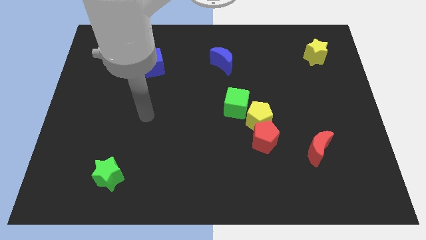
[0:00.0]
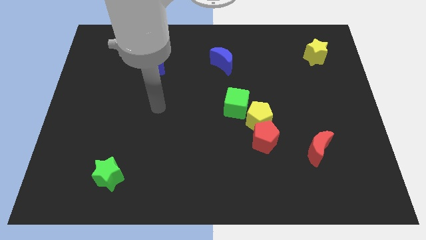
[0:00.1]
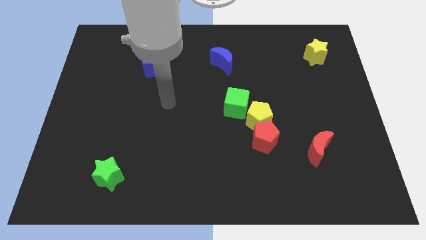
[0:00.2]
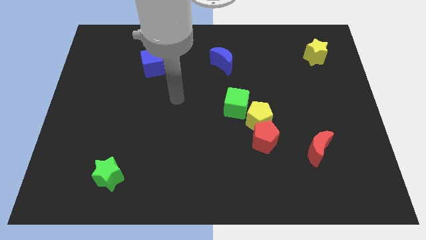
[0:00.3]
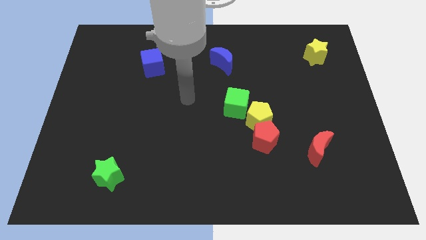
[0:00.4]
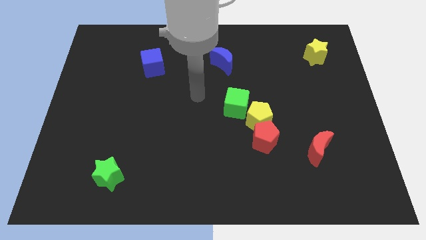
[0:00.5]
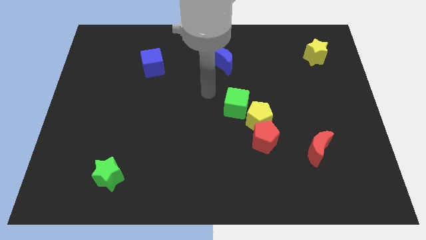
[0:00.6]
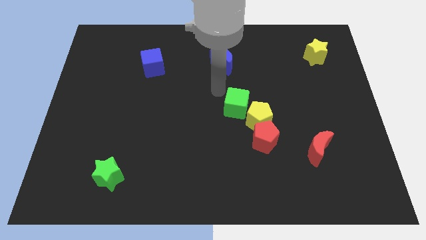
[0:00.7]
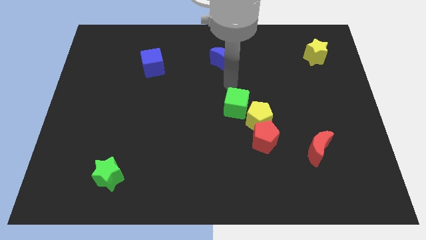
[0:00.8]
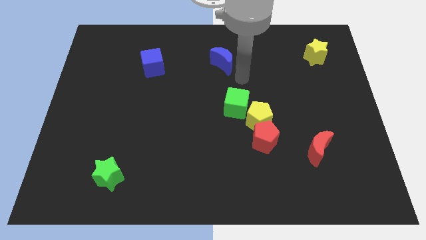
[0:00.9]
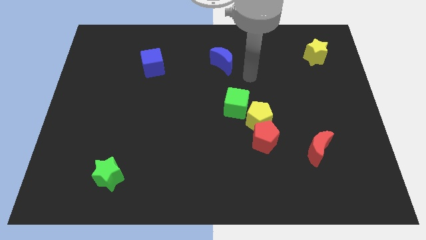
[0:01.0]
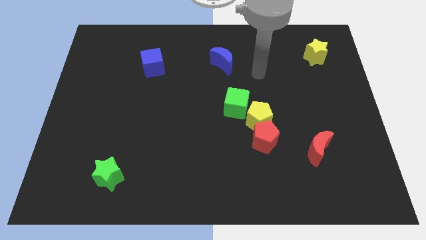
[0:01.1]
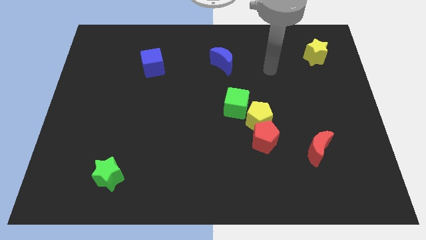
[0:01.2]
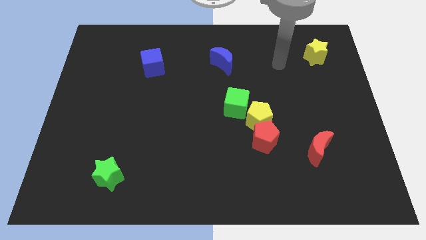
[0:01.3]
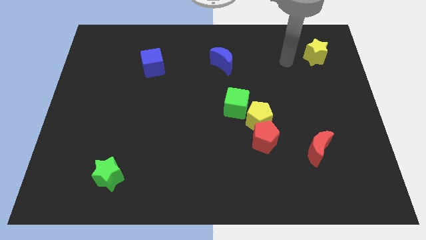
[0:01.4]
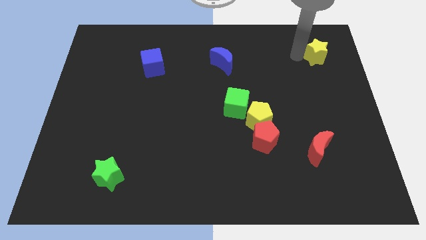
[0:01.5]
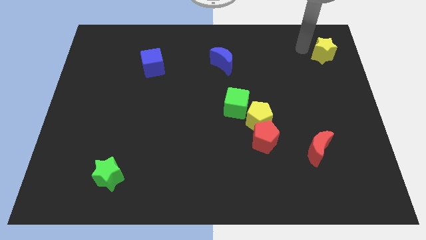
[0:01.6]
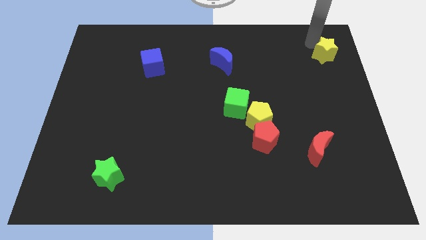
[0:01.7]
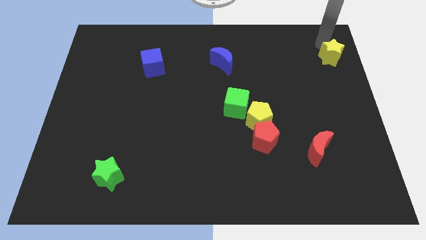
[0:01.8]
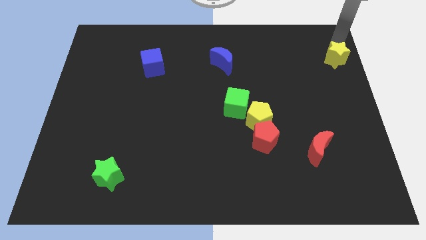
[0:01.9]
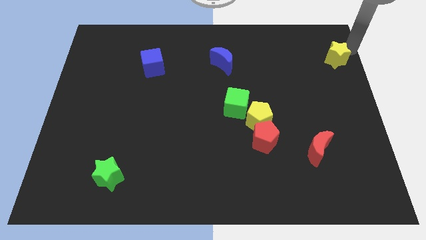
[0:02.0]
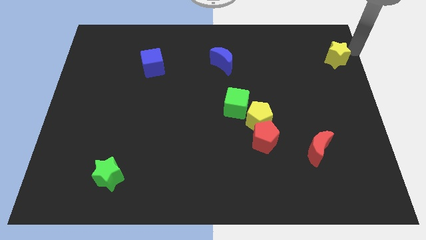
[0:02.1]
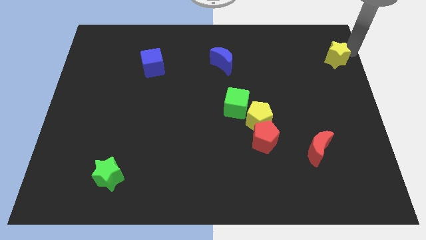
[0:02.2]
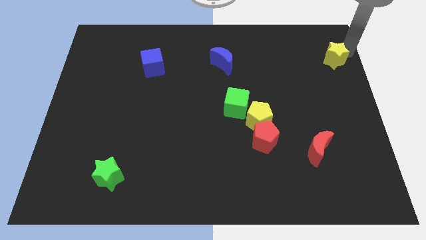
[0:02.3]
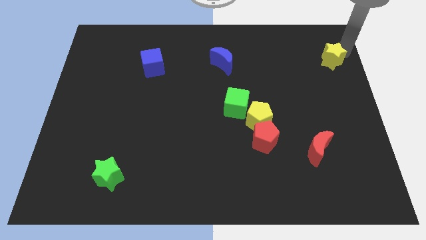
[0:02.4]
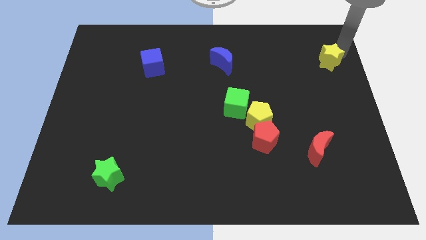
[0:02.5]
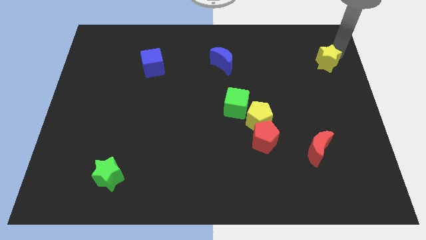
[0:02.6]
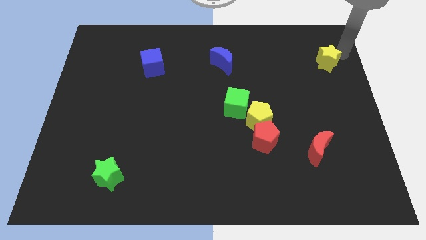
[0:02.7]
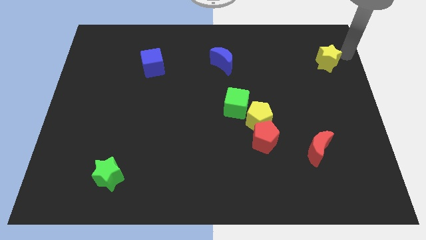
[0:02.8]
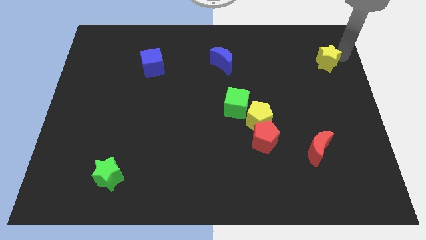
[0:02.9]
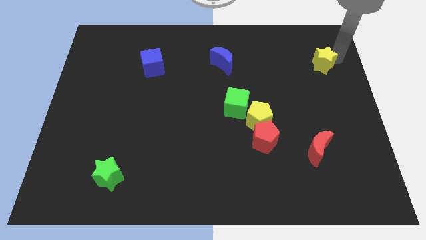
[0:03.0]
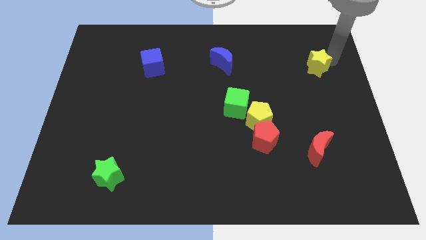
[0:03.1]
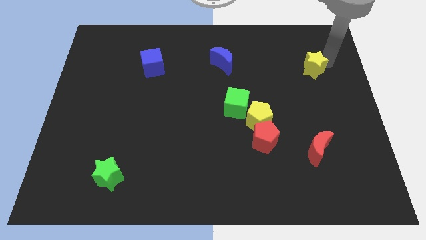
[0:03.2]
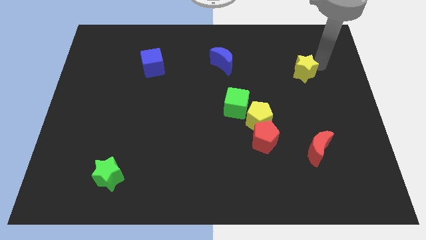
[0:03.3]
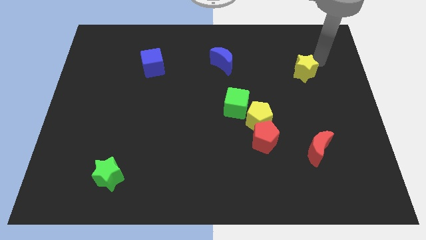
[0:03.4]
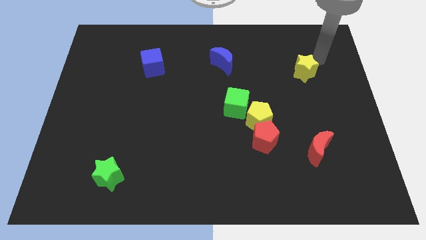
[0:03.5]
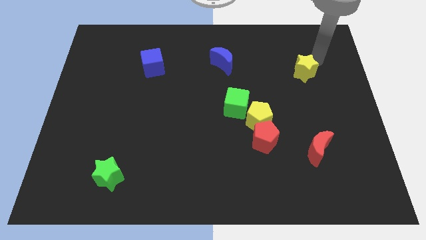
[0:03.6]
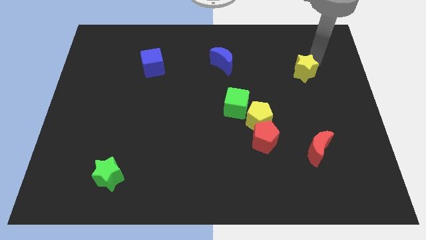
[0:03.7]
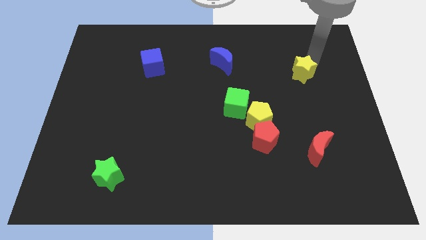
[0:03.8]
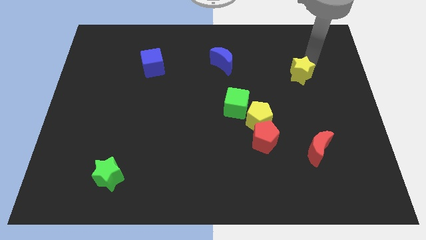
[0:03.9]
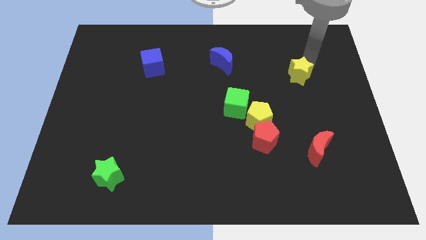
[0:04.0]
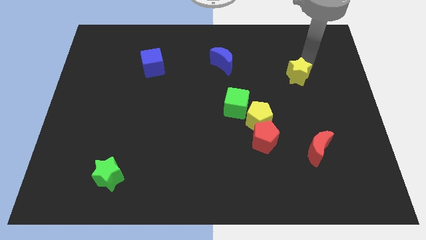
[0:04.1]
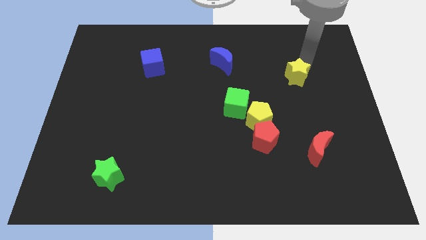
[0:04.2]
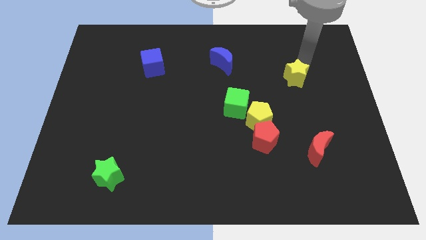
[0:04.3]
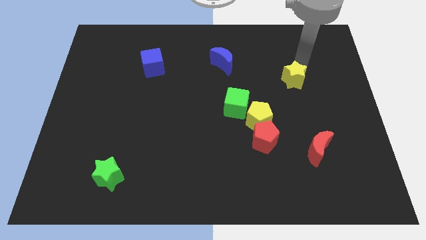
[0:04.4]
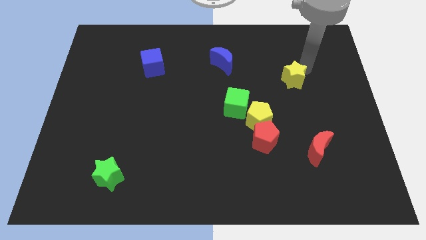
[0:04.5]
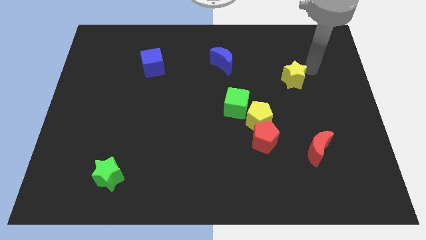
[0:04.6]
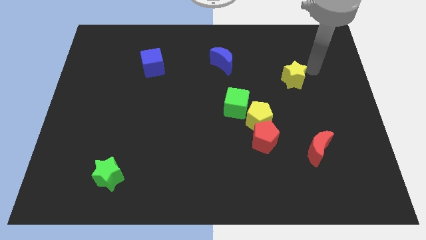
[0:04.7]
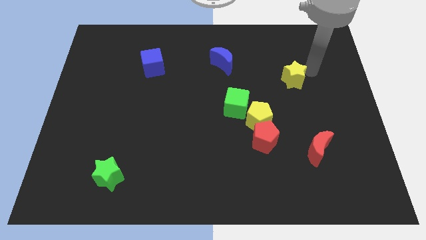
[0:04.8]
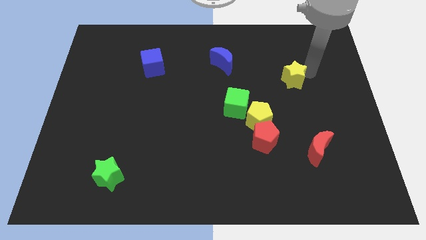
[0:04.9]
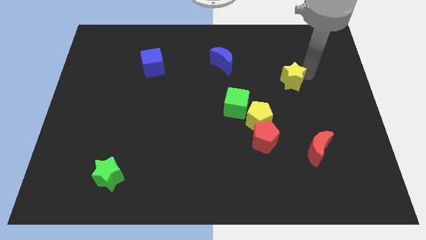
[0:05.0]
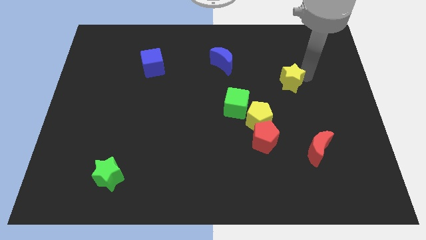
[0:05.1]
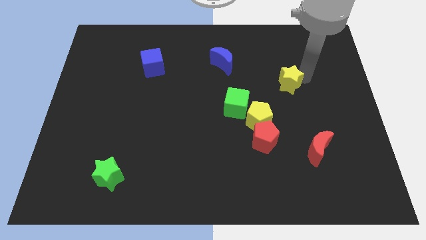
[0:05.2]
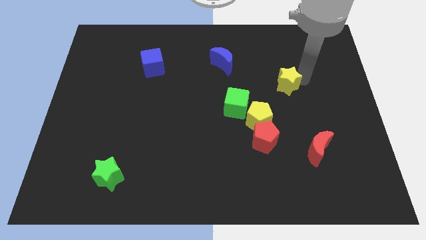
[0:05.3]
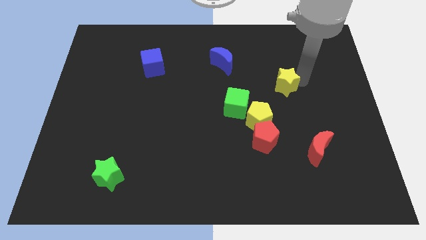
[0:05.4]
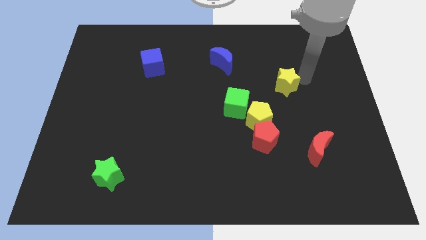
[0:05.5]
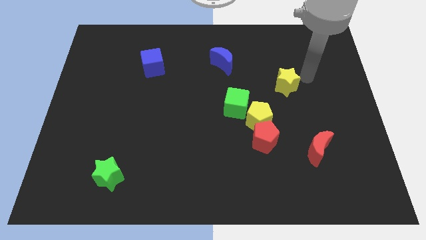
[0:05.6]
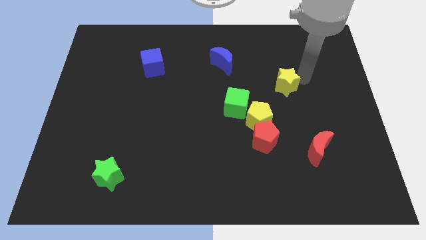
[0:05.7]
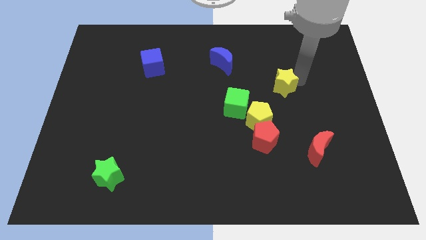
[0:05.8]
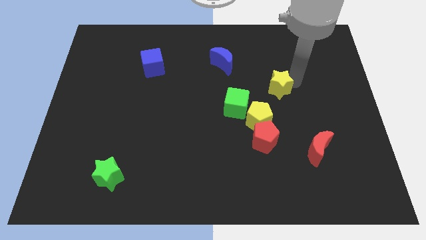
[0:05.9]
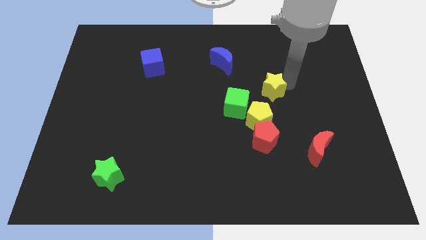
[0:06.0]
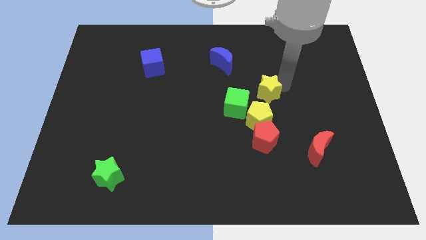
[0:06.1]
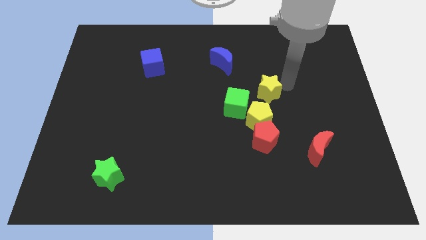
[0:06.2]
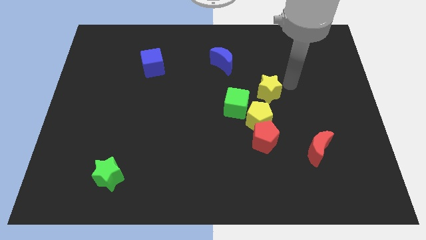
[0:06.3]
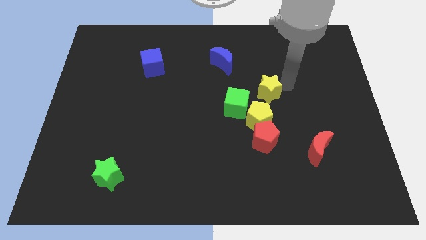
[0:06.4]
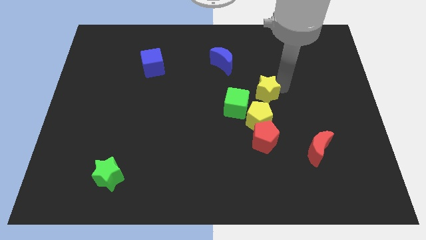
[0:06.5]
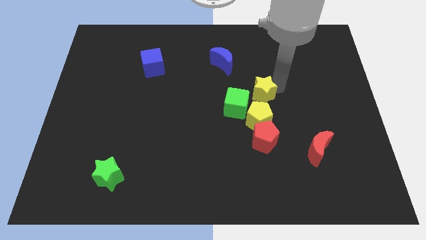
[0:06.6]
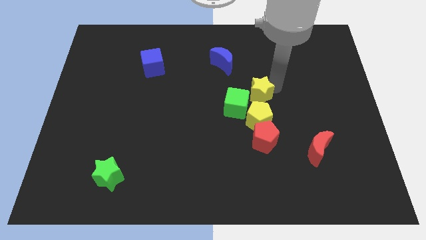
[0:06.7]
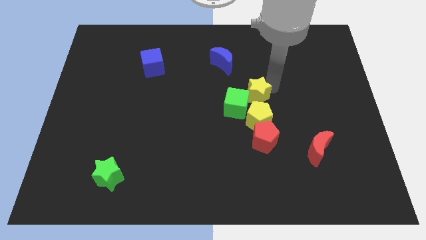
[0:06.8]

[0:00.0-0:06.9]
slide the yellow star towards the green cube
